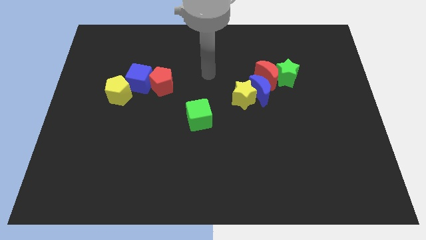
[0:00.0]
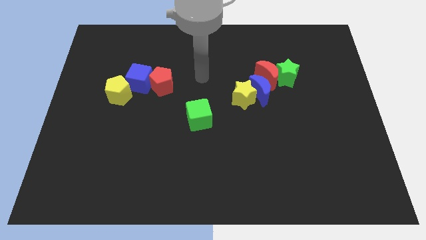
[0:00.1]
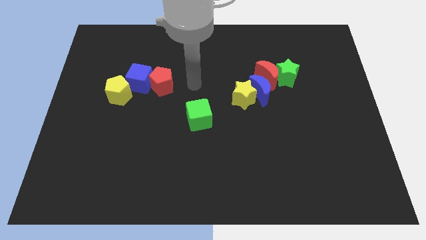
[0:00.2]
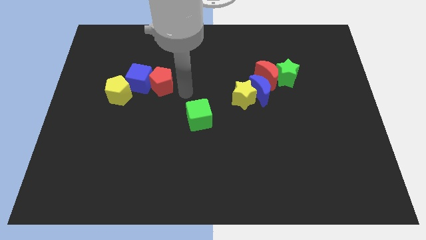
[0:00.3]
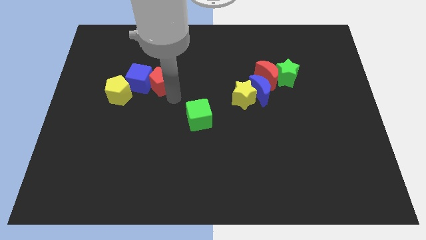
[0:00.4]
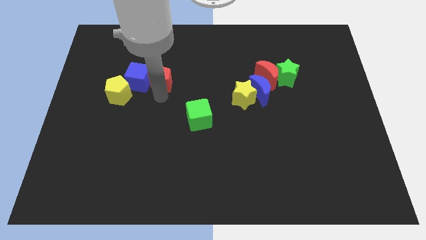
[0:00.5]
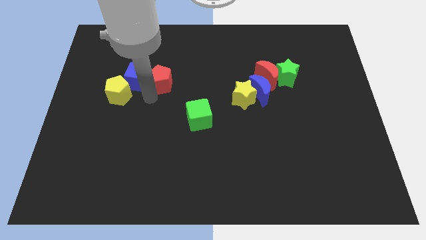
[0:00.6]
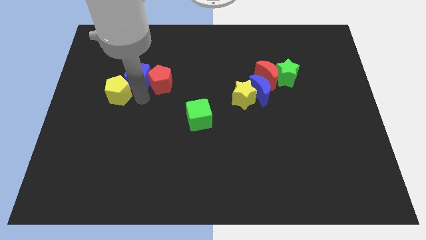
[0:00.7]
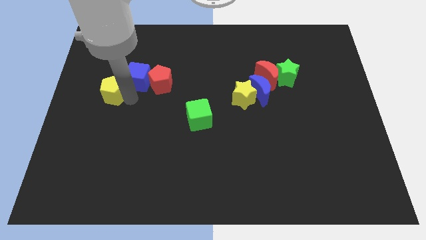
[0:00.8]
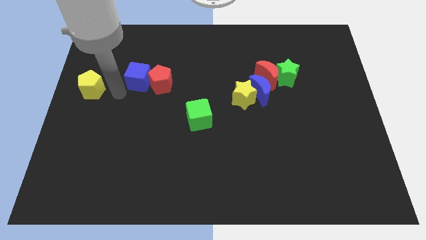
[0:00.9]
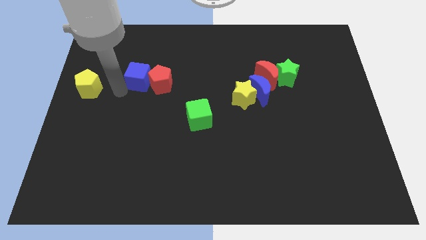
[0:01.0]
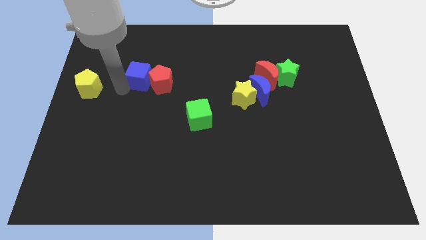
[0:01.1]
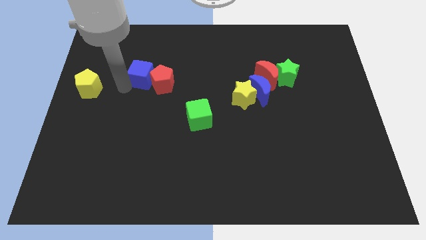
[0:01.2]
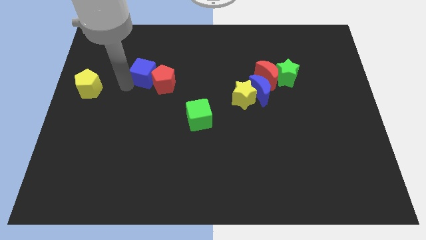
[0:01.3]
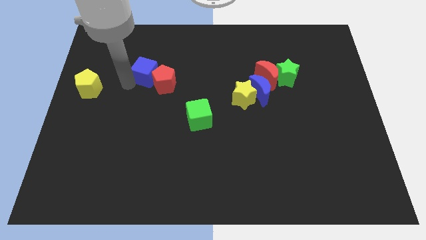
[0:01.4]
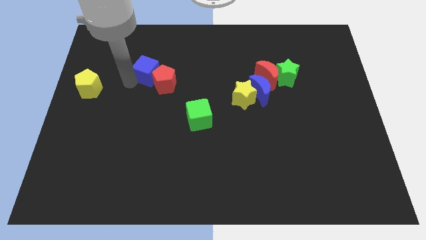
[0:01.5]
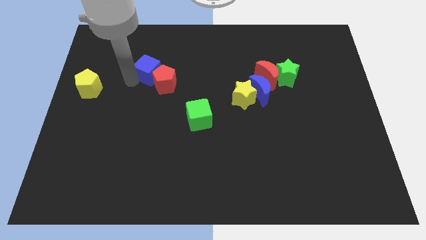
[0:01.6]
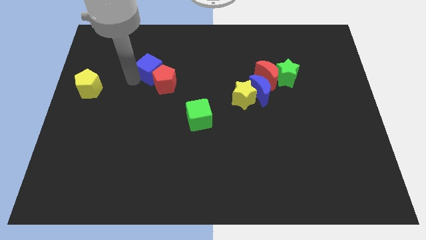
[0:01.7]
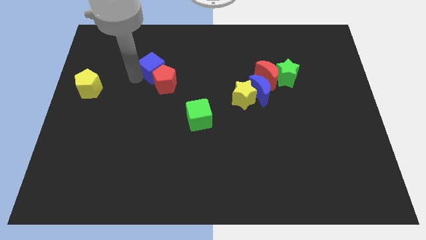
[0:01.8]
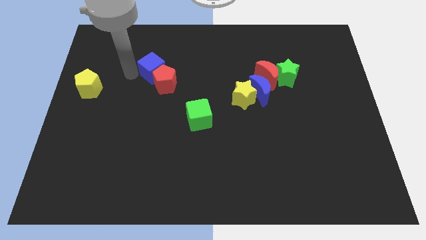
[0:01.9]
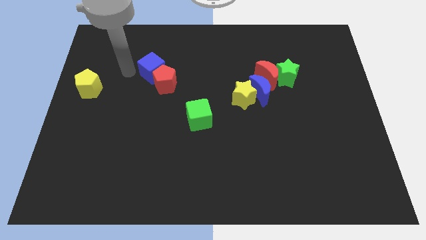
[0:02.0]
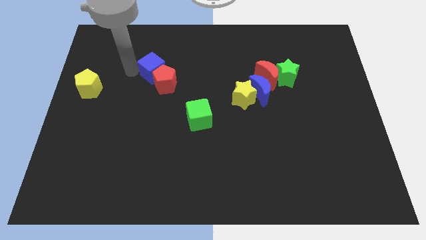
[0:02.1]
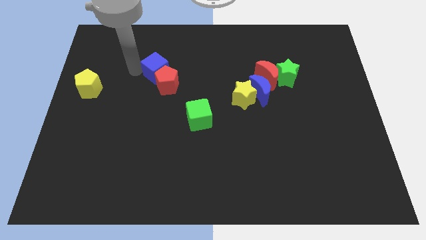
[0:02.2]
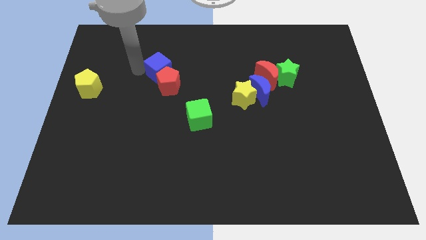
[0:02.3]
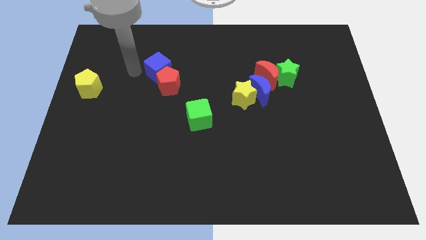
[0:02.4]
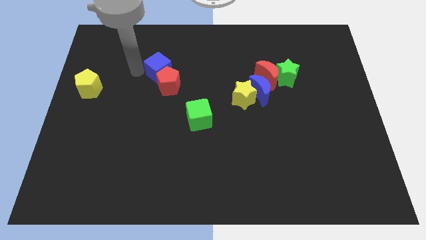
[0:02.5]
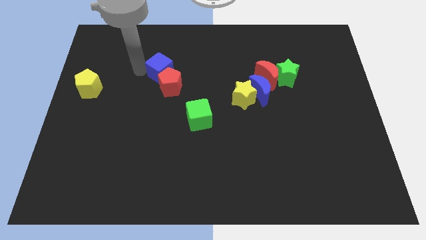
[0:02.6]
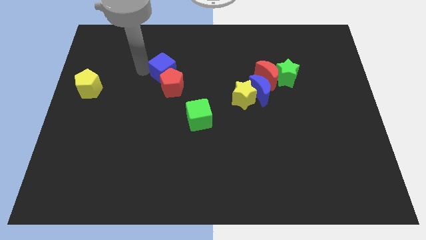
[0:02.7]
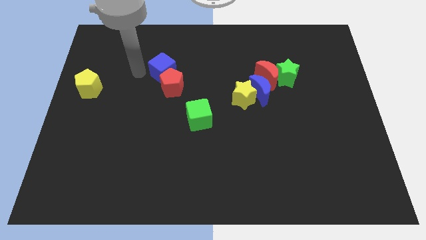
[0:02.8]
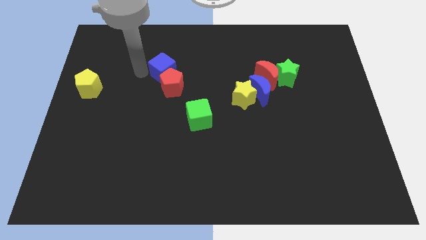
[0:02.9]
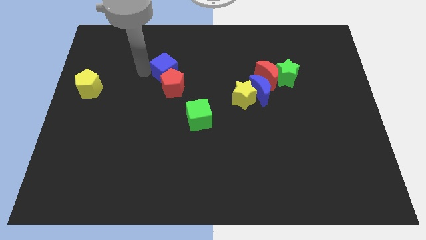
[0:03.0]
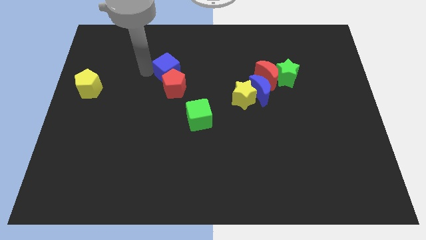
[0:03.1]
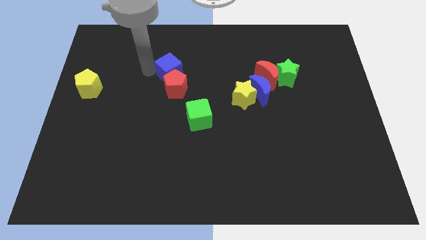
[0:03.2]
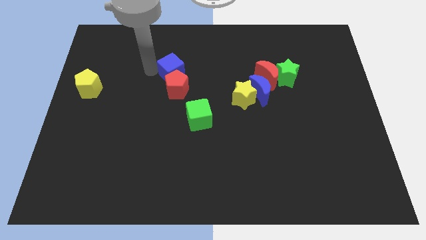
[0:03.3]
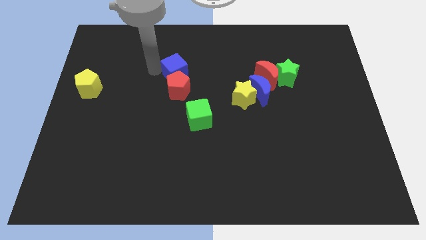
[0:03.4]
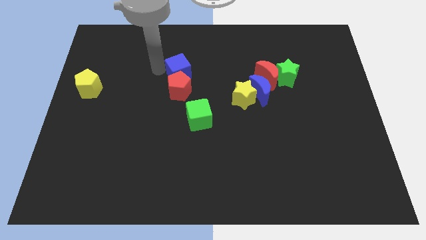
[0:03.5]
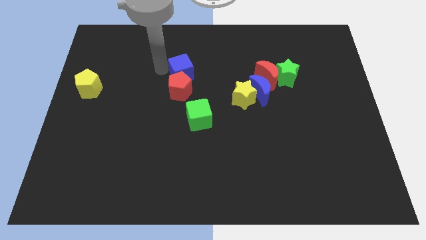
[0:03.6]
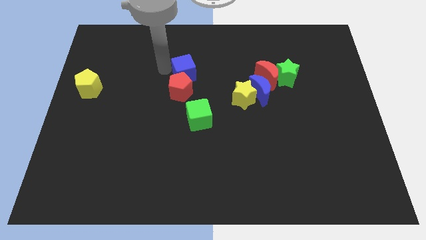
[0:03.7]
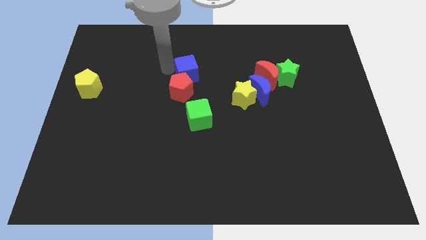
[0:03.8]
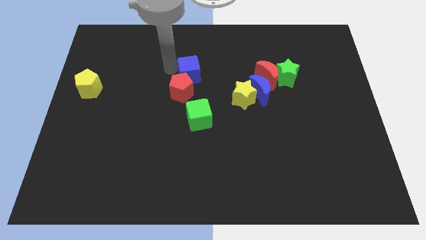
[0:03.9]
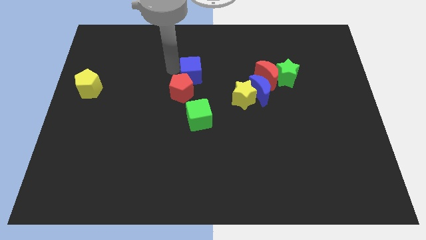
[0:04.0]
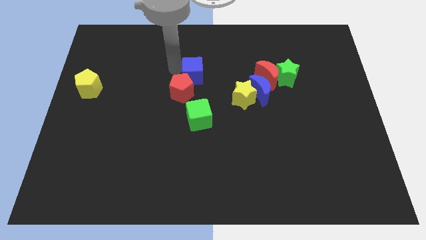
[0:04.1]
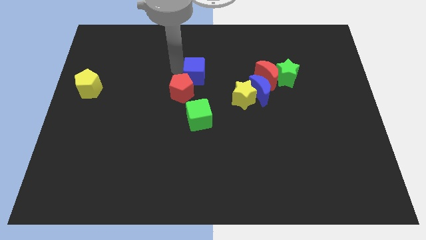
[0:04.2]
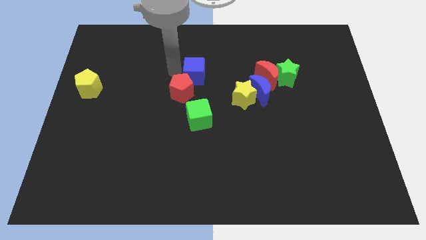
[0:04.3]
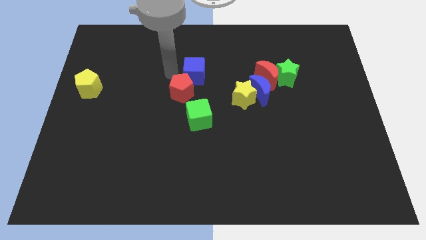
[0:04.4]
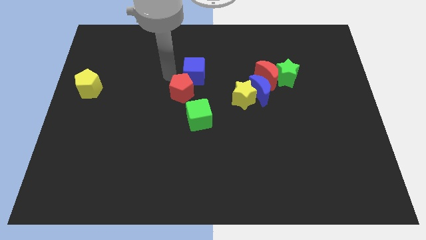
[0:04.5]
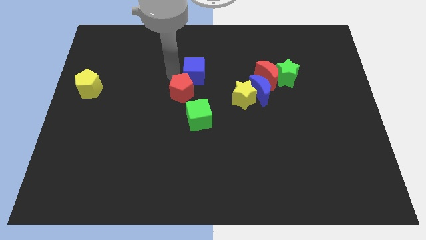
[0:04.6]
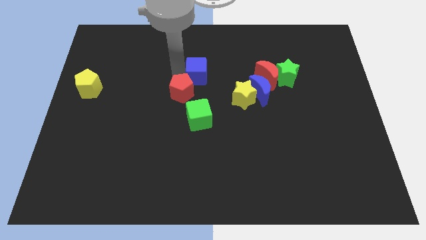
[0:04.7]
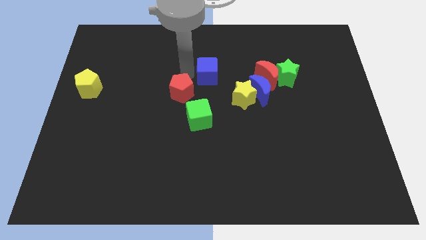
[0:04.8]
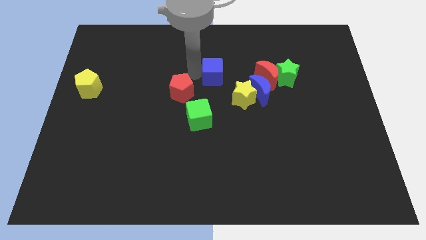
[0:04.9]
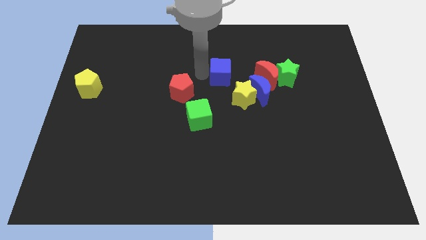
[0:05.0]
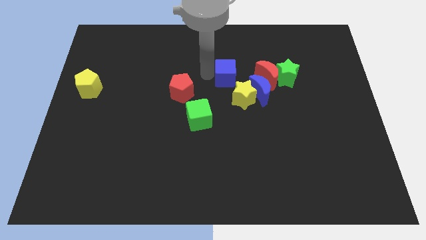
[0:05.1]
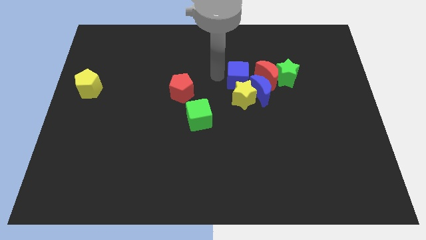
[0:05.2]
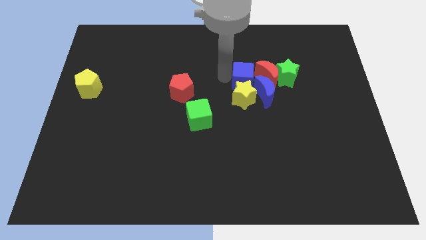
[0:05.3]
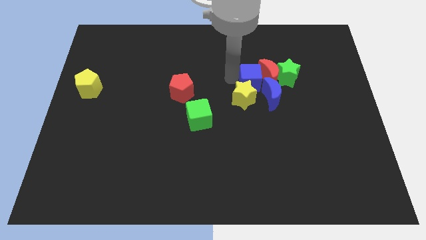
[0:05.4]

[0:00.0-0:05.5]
put the blue cube next to the red moon

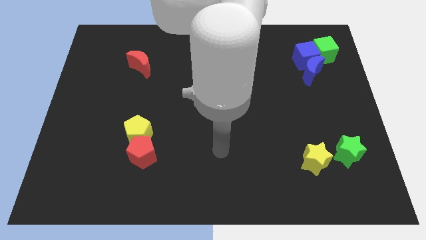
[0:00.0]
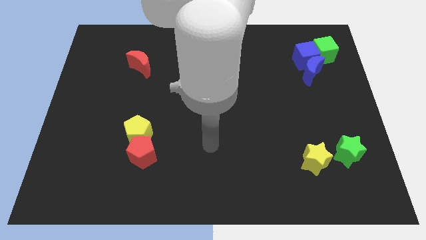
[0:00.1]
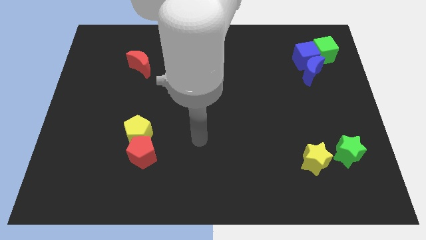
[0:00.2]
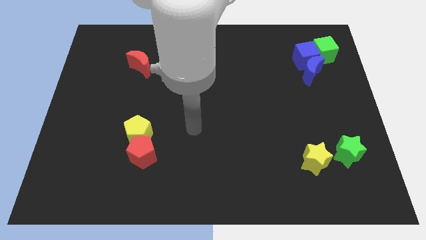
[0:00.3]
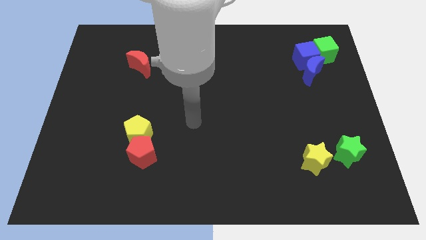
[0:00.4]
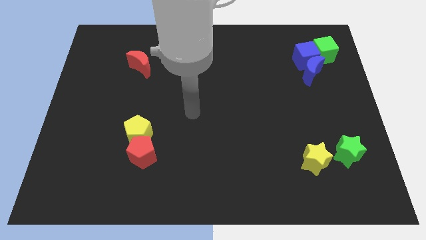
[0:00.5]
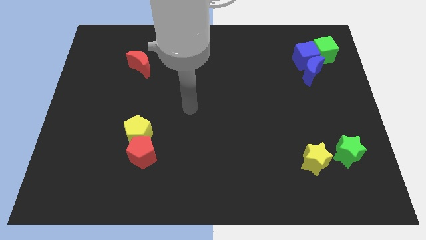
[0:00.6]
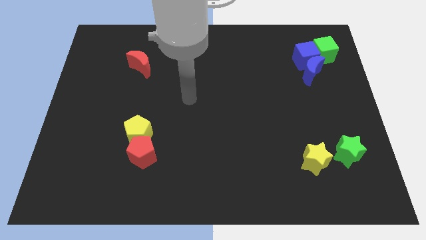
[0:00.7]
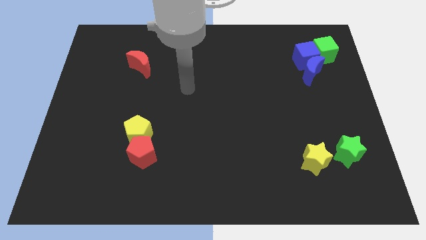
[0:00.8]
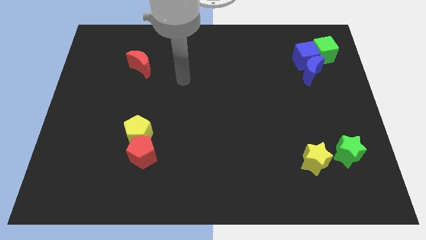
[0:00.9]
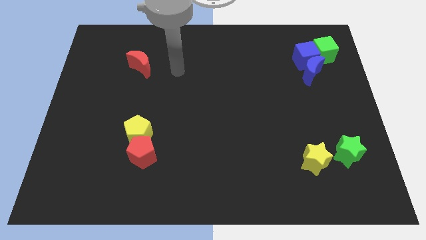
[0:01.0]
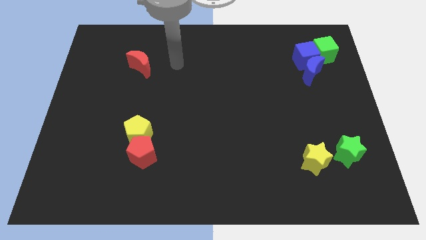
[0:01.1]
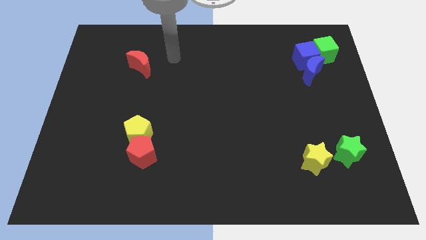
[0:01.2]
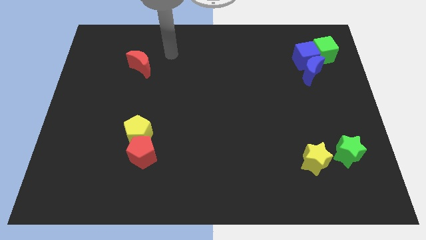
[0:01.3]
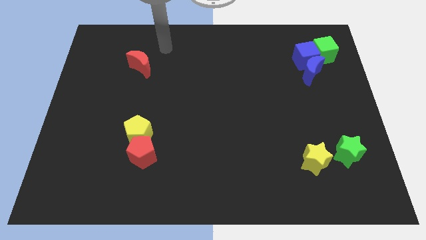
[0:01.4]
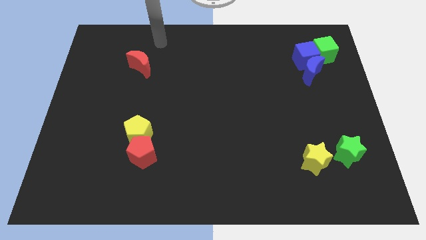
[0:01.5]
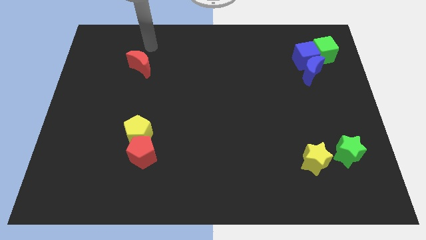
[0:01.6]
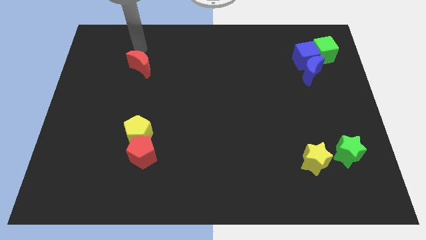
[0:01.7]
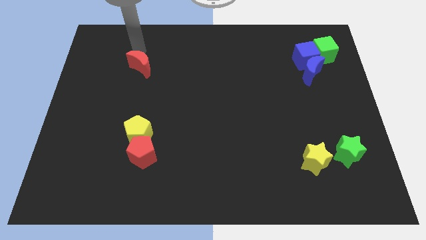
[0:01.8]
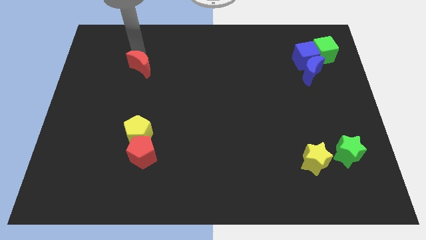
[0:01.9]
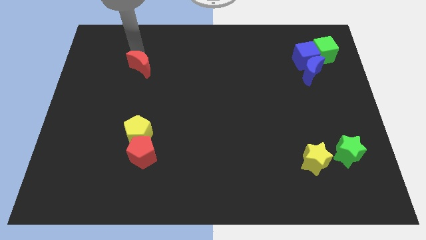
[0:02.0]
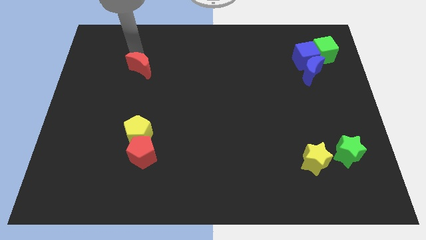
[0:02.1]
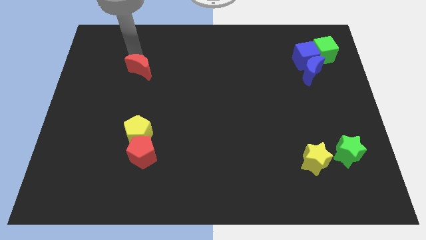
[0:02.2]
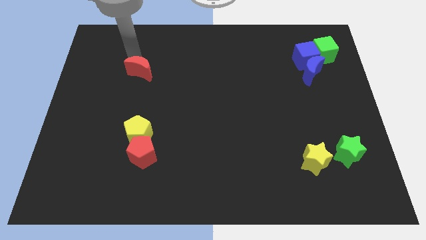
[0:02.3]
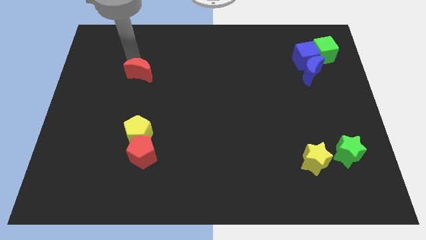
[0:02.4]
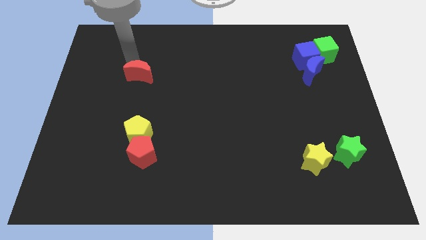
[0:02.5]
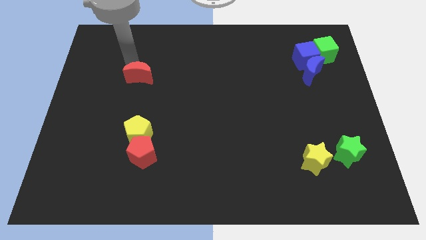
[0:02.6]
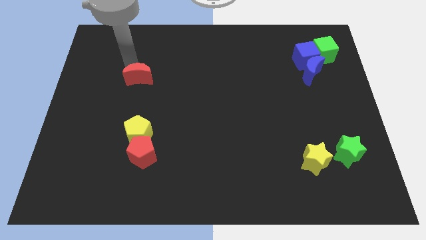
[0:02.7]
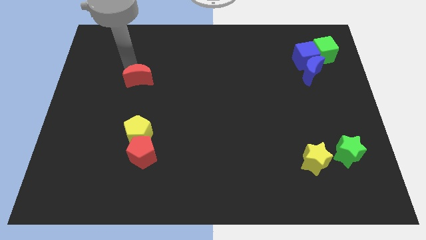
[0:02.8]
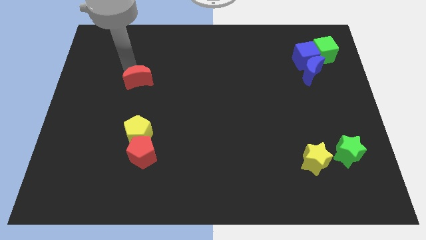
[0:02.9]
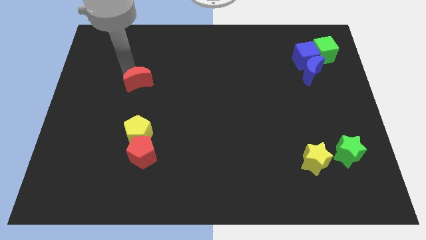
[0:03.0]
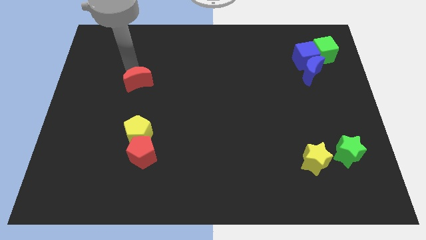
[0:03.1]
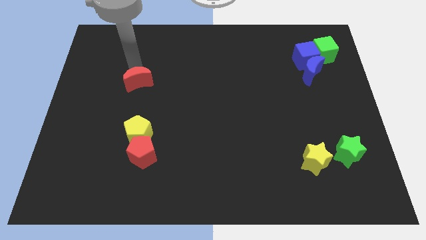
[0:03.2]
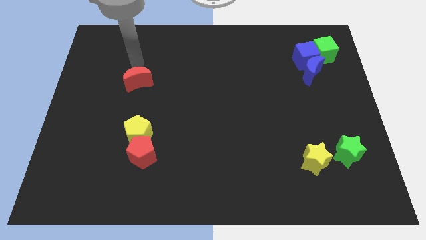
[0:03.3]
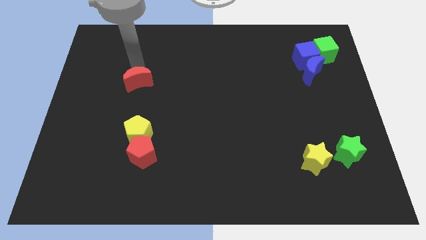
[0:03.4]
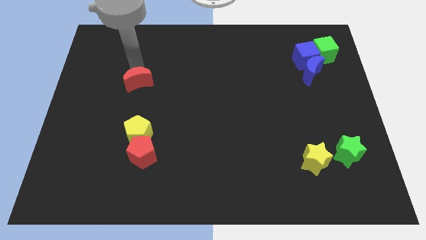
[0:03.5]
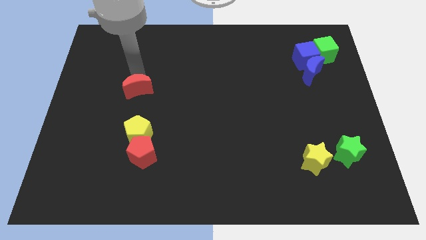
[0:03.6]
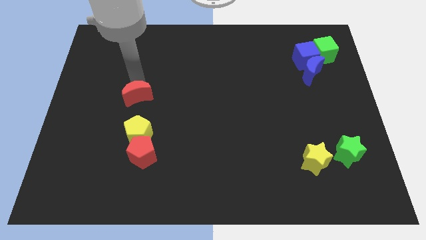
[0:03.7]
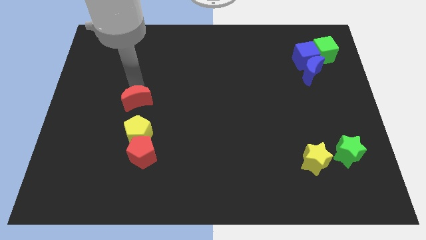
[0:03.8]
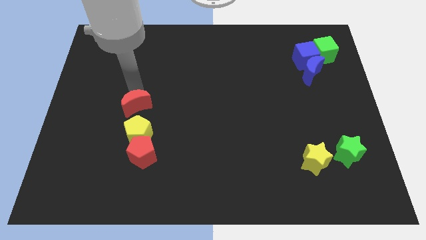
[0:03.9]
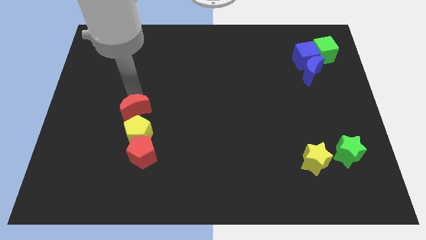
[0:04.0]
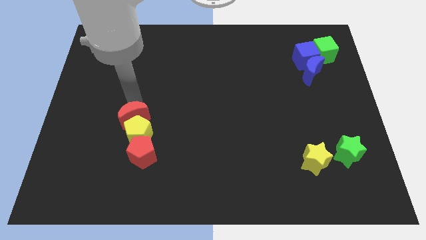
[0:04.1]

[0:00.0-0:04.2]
push the red moon towards the yellow pentagon
